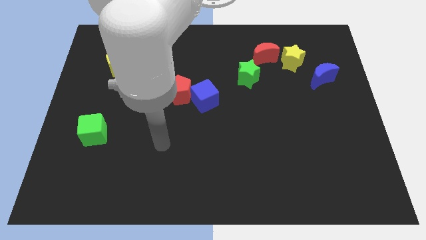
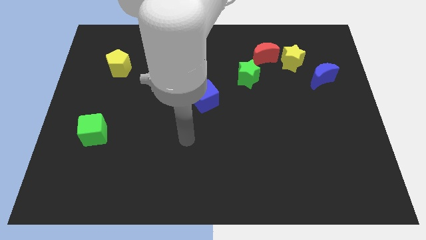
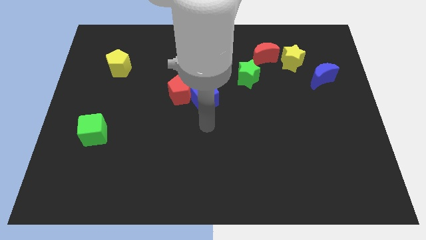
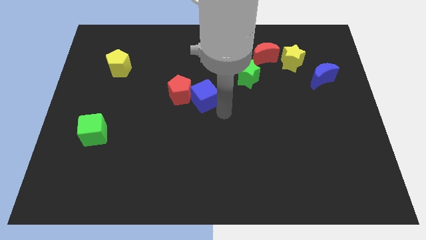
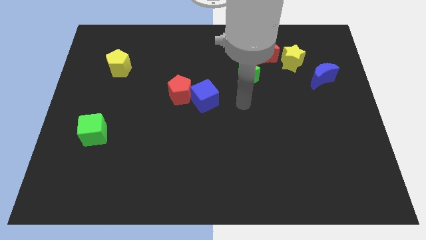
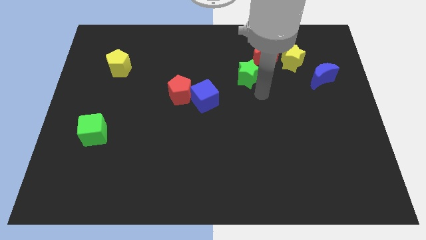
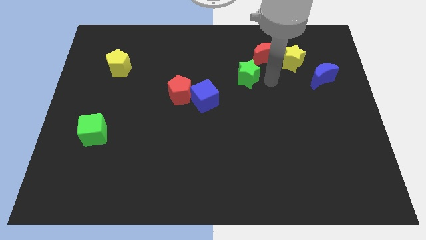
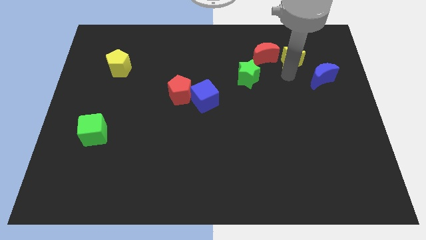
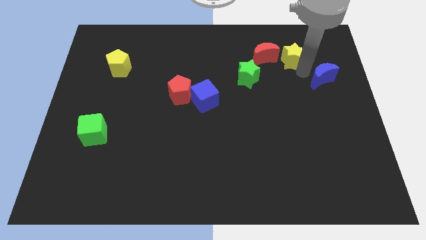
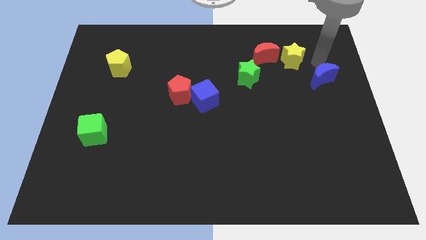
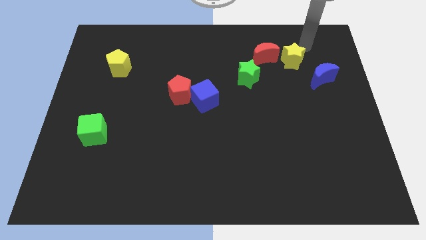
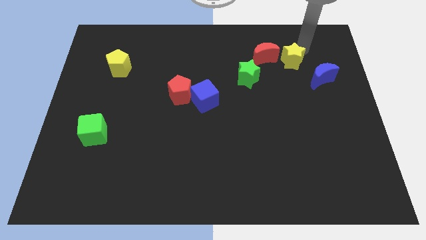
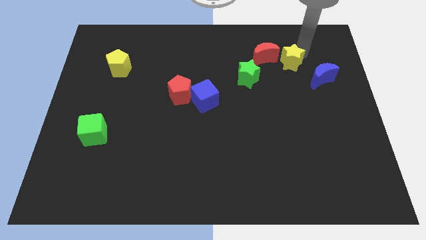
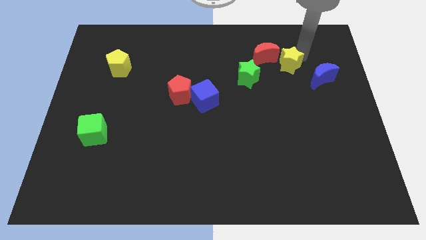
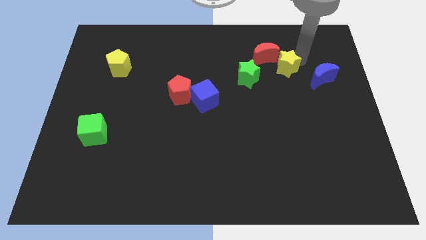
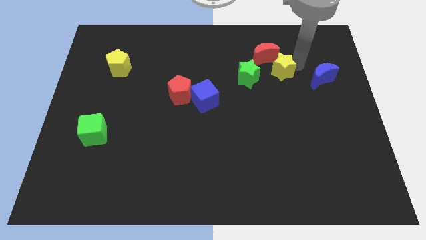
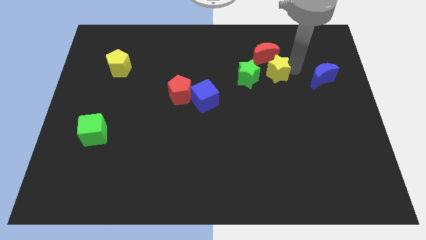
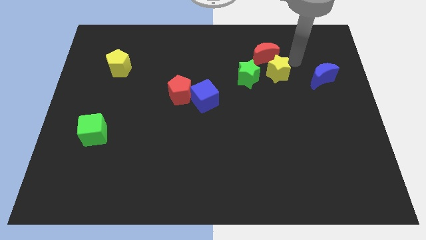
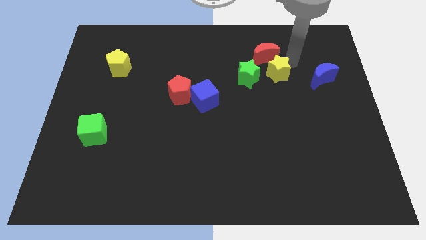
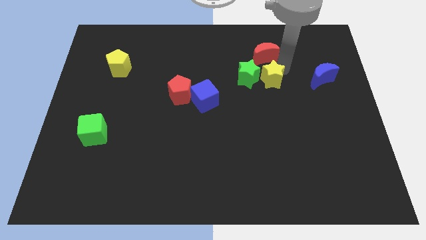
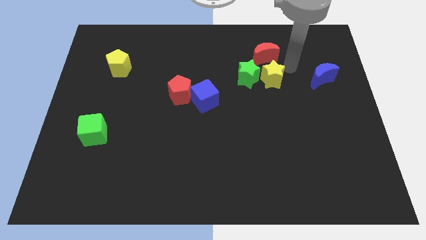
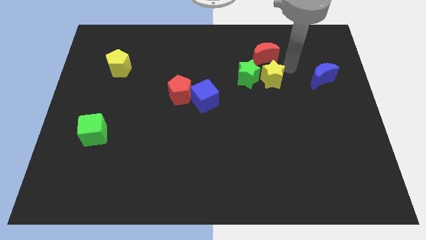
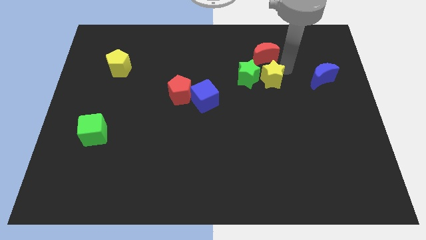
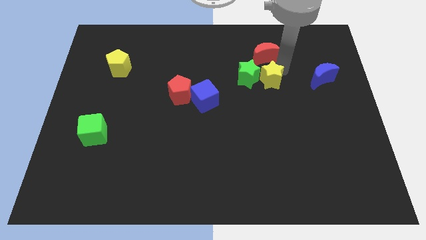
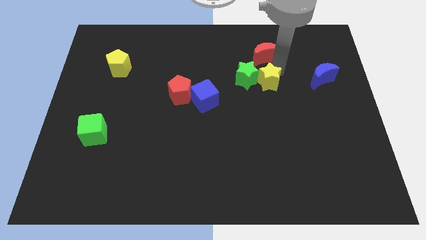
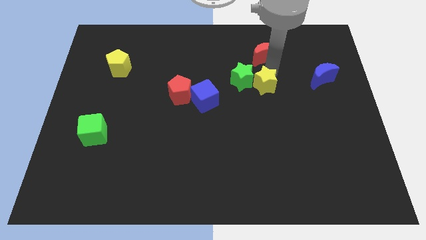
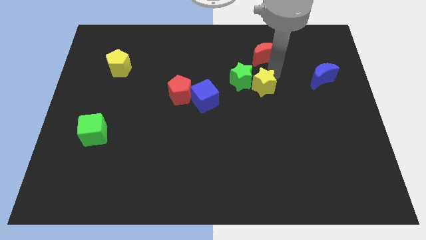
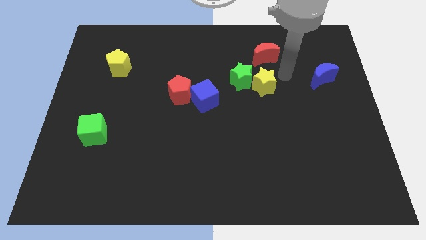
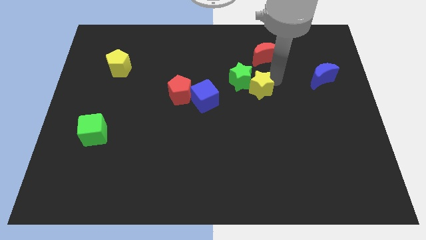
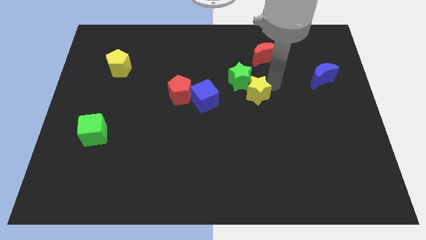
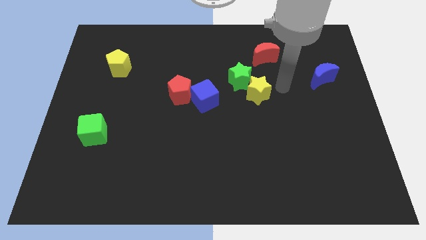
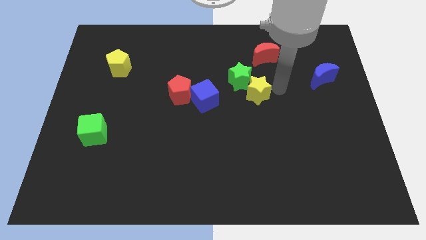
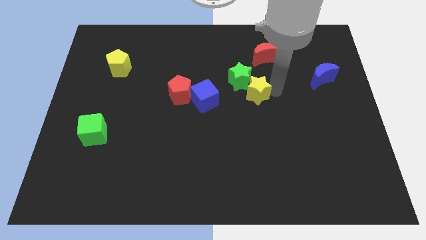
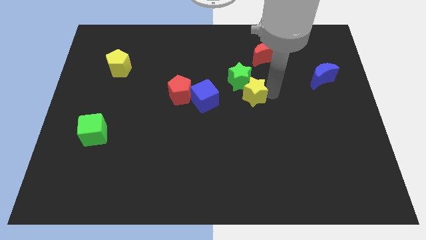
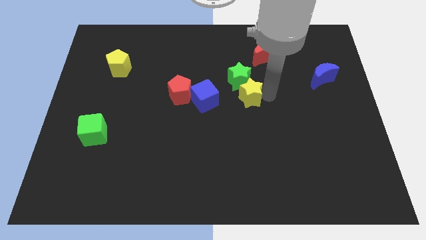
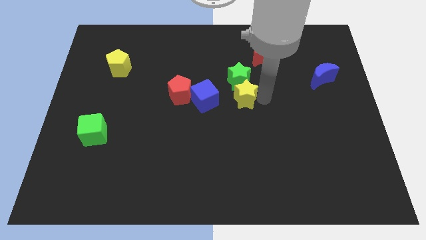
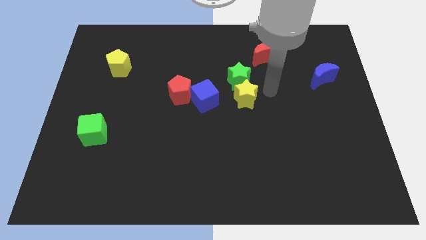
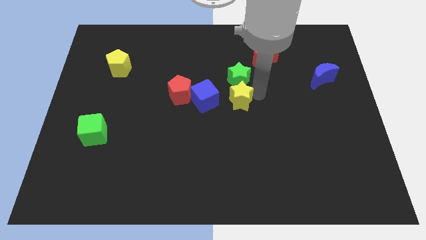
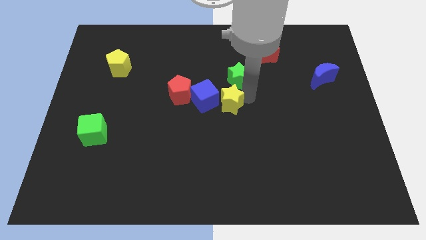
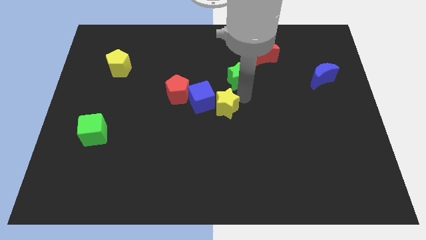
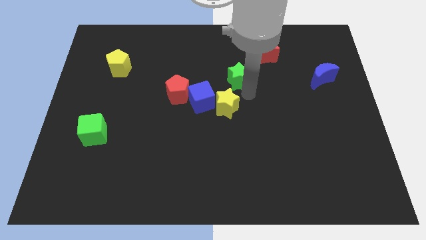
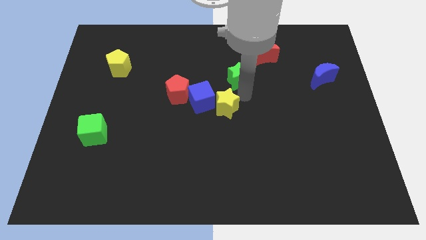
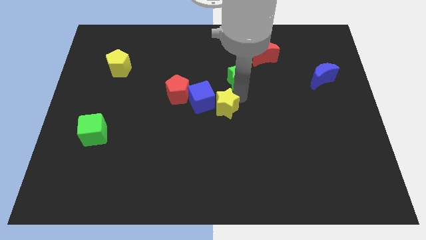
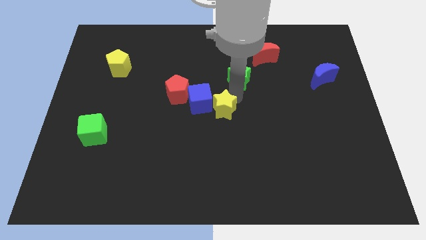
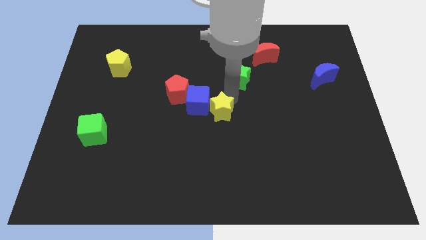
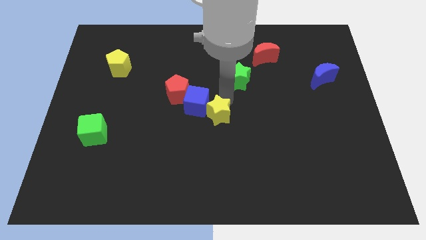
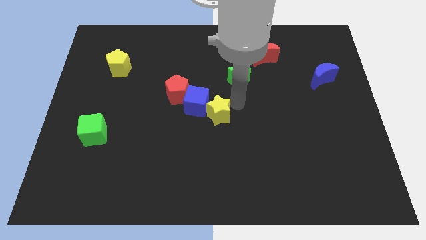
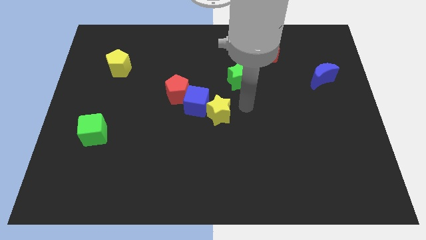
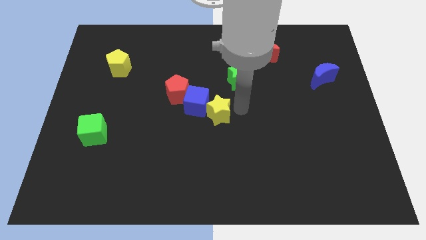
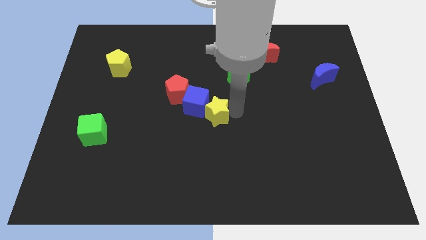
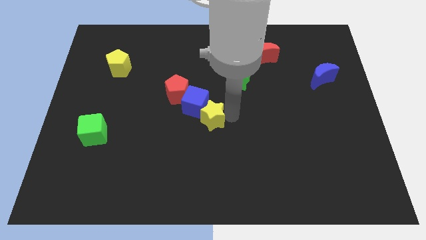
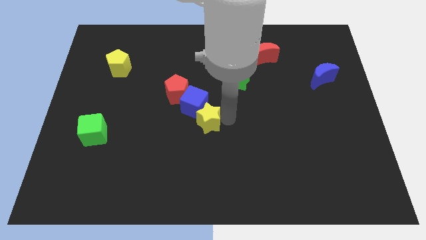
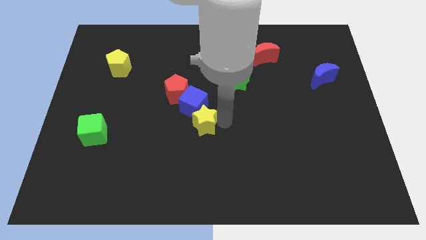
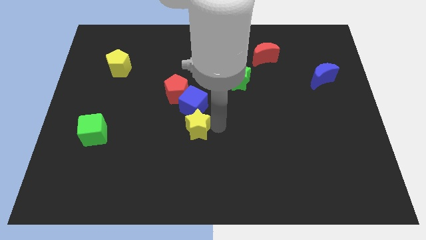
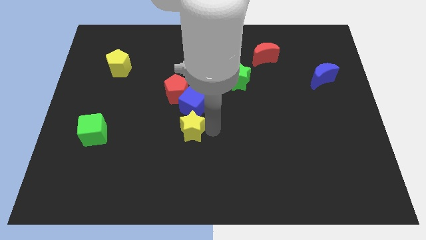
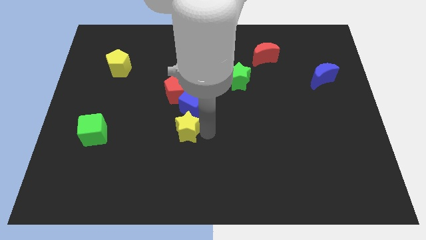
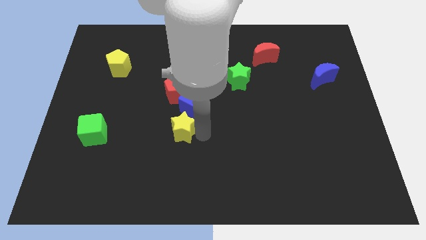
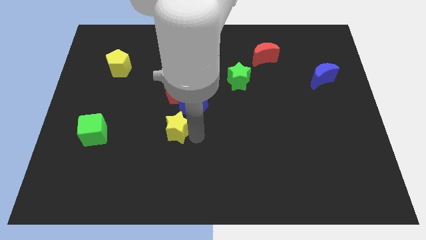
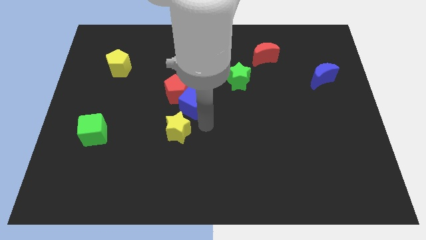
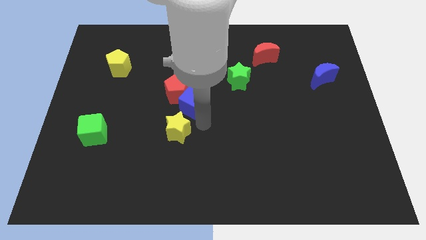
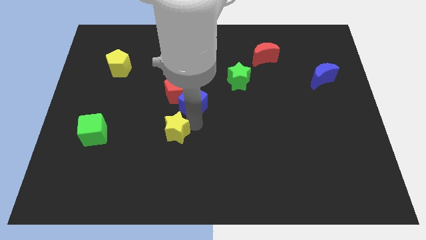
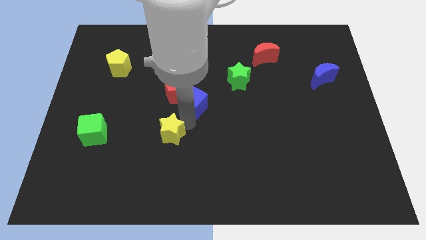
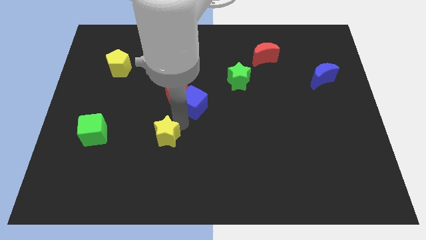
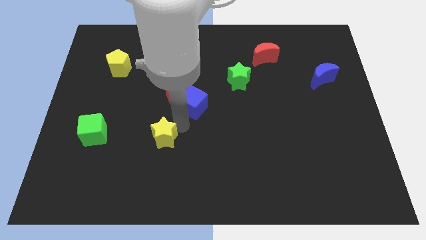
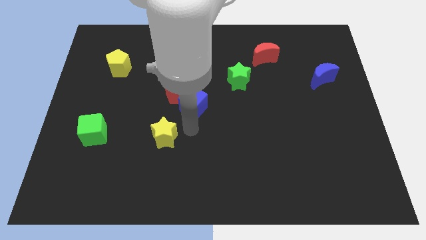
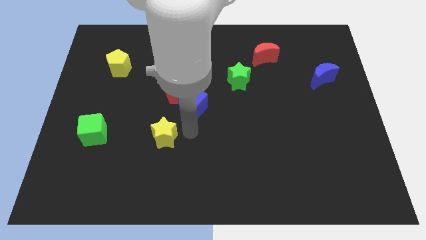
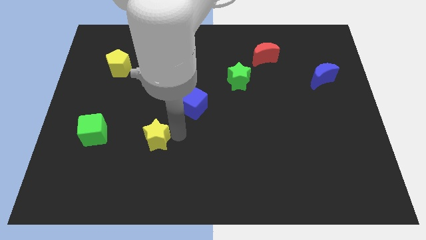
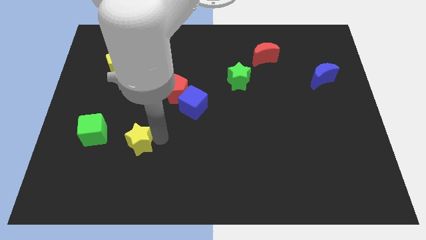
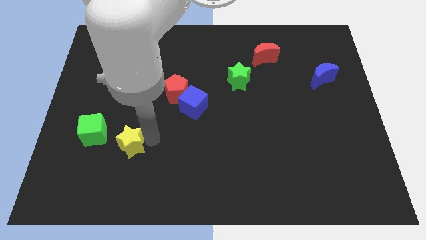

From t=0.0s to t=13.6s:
put the yellow star to the bottom right side of the green cube
